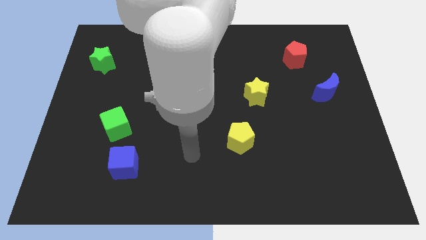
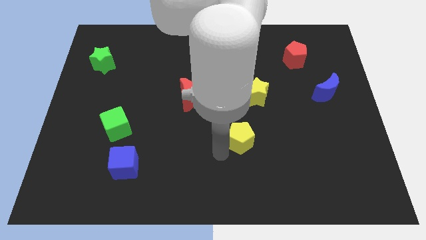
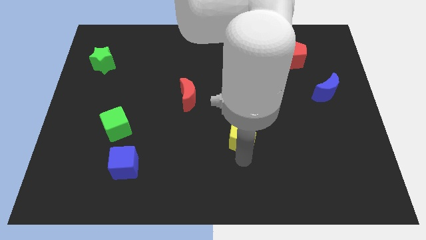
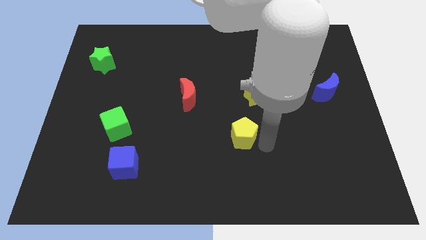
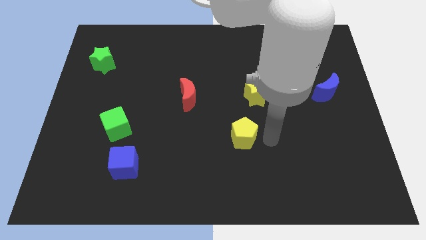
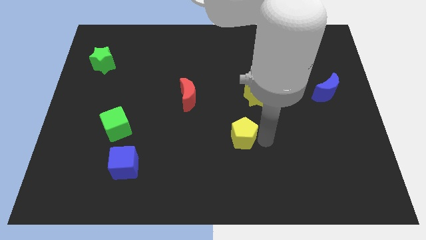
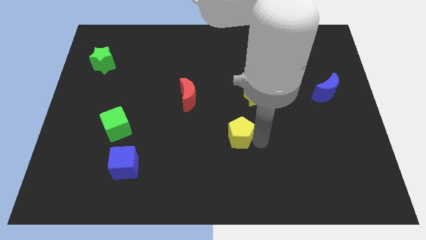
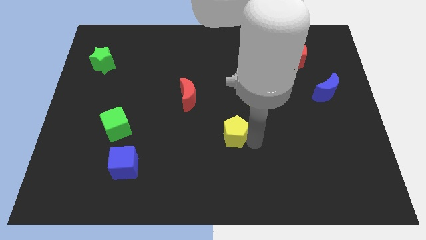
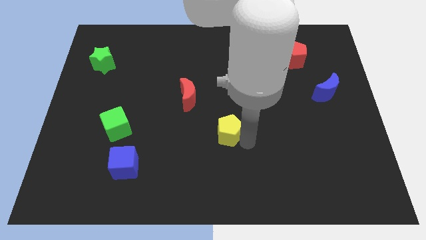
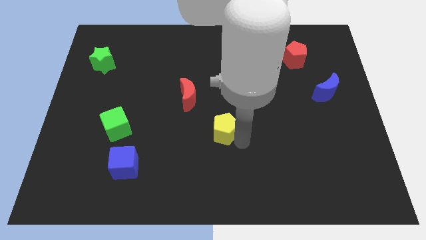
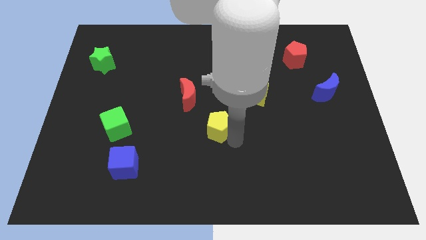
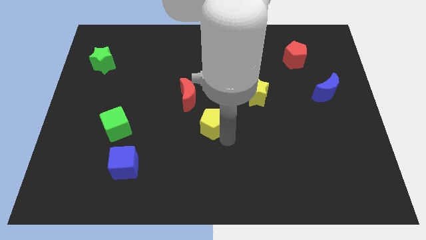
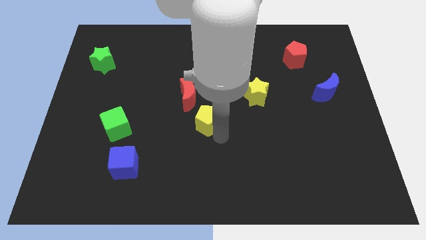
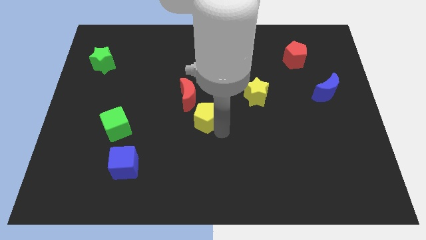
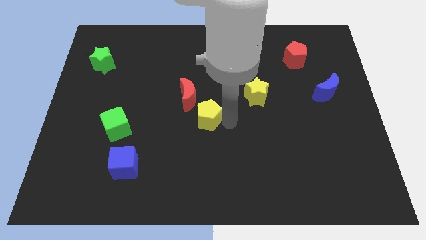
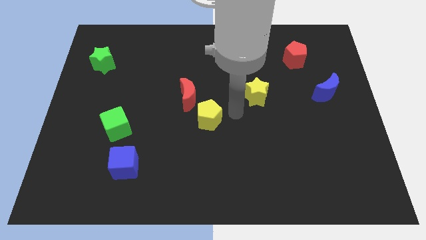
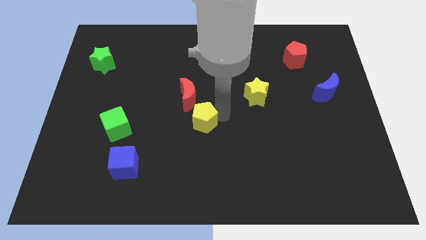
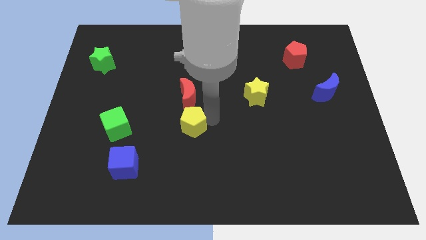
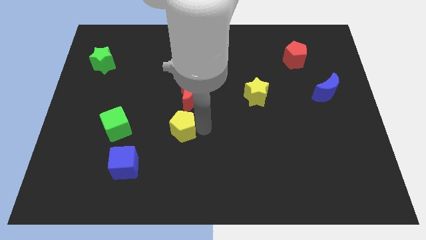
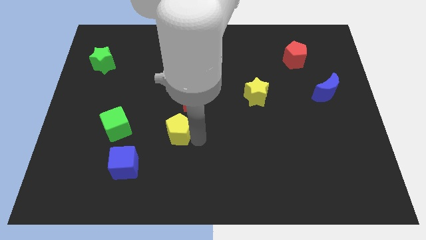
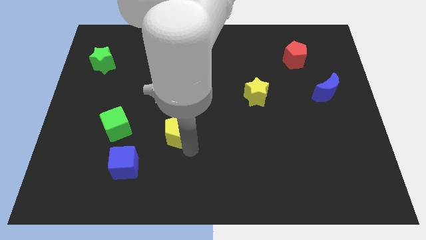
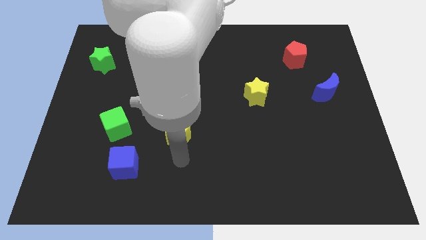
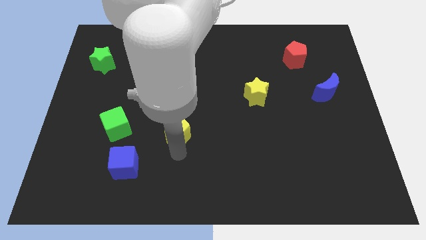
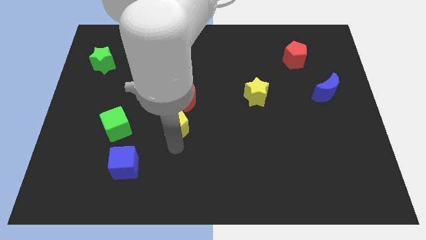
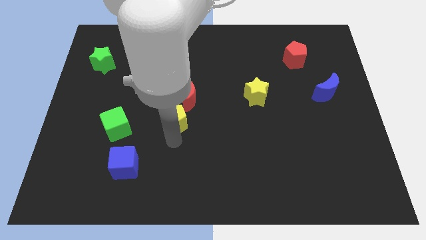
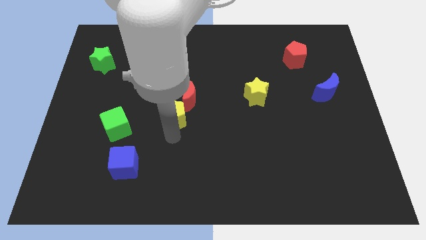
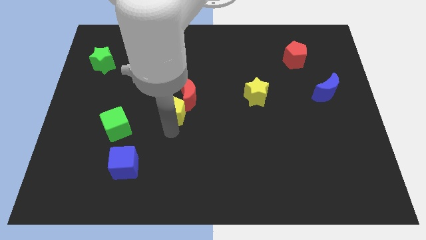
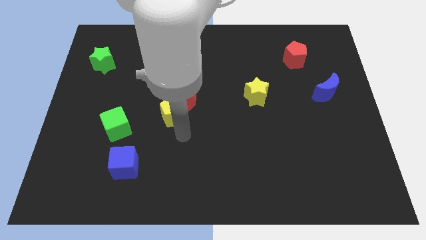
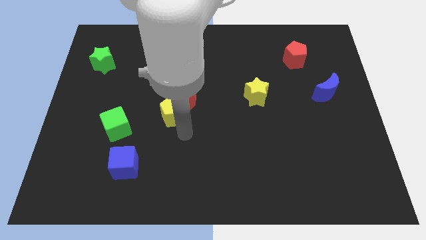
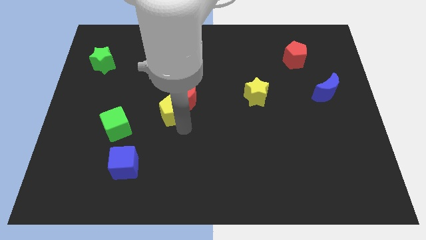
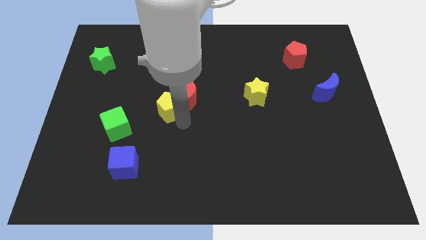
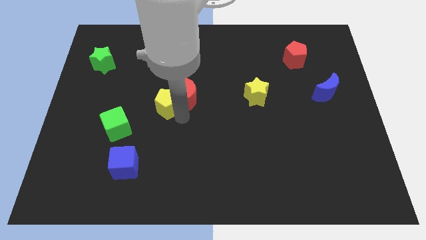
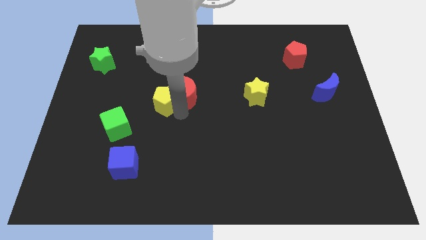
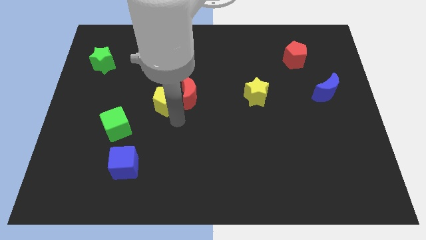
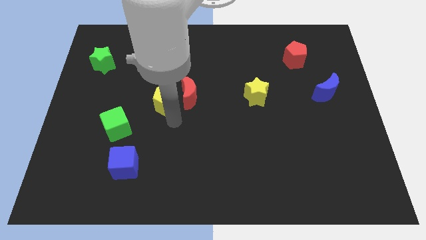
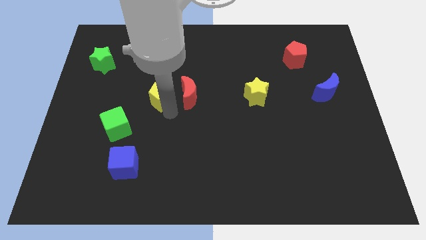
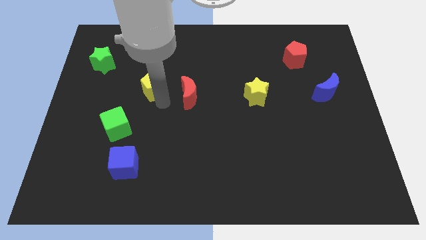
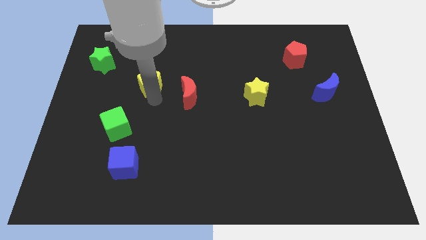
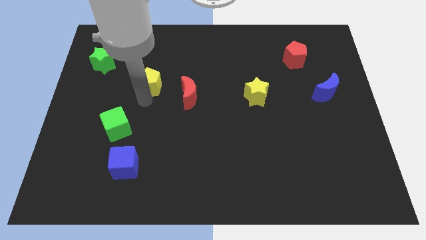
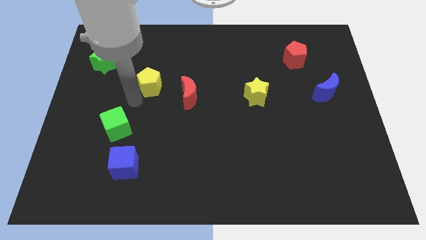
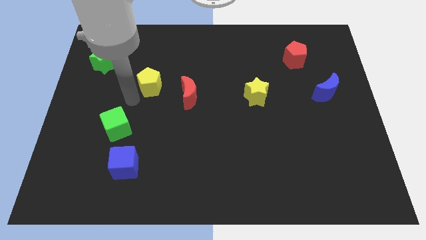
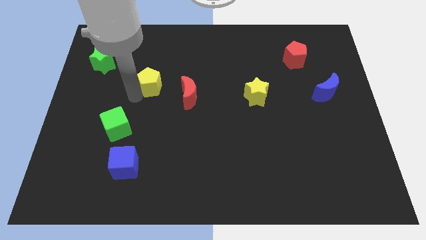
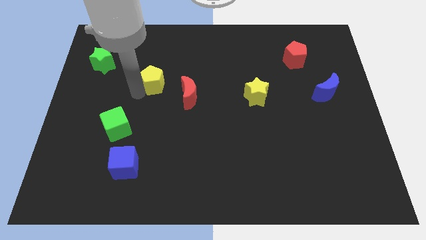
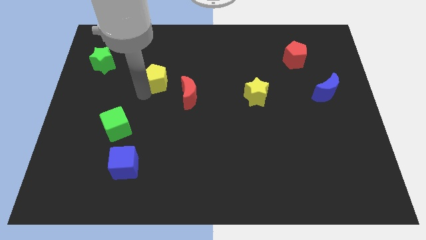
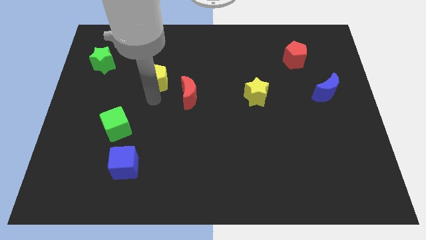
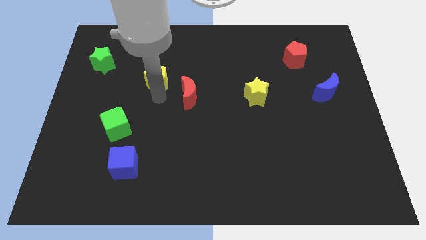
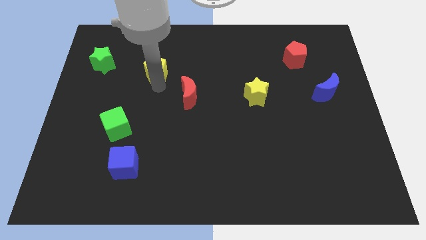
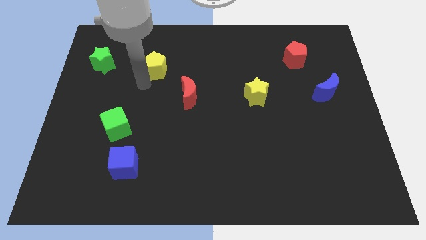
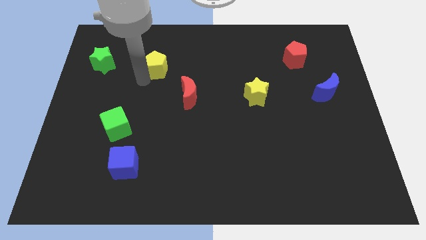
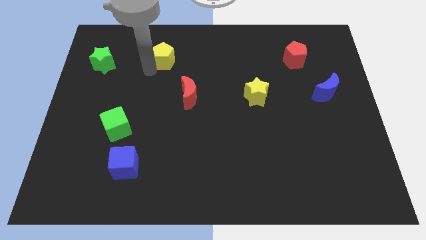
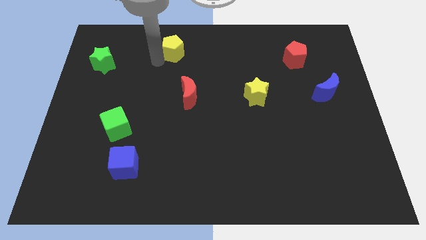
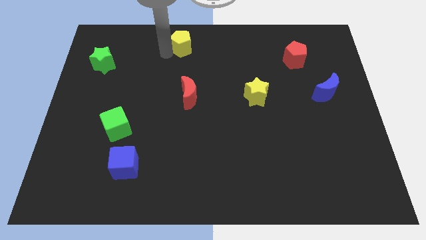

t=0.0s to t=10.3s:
move the yellow pentagon to the towards your base
